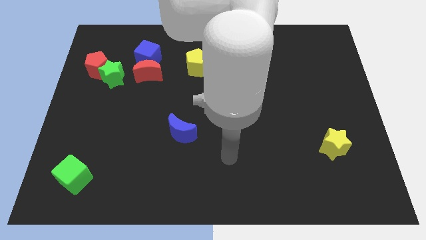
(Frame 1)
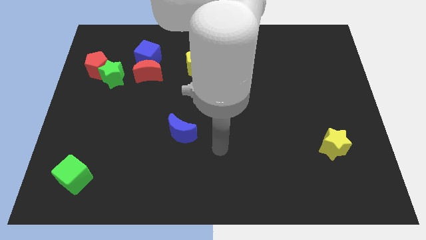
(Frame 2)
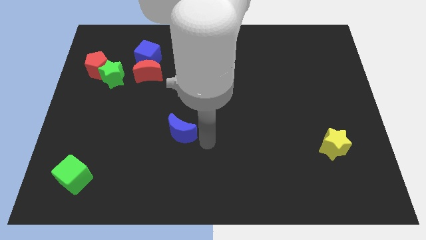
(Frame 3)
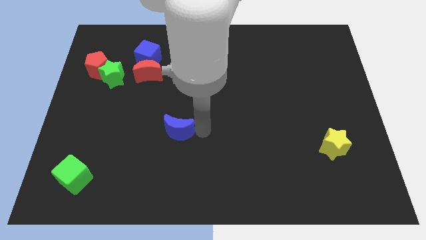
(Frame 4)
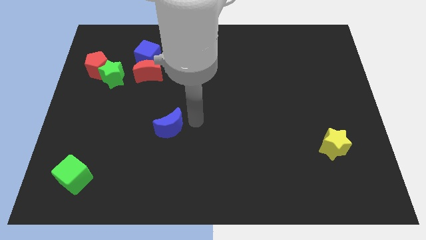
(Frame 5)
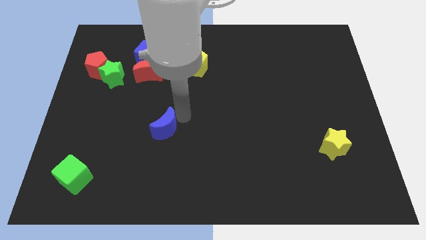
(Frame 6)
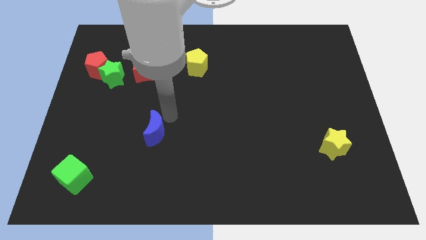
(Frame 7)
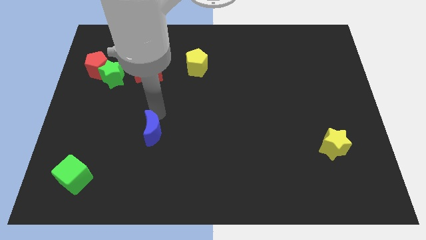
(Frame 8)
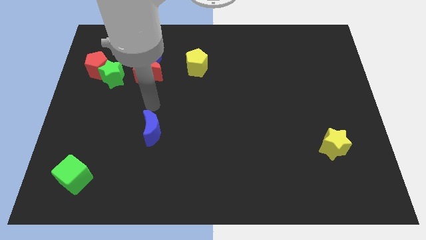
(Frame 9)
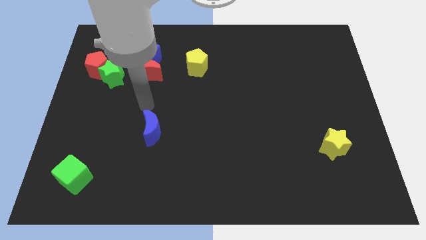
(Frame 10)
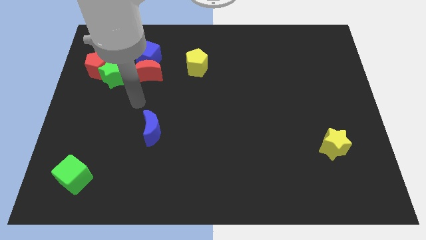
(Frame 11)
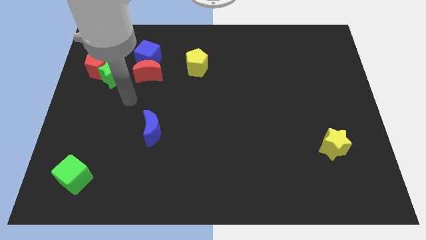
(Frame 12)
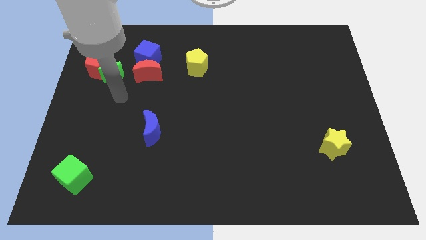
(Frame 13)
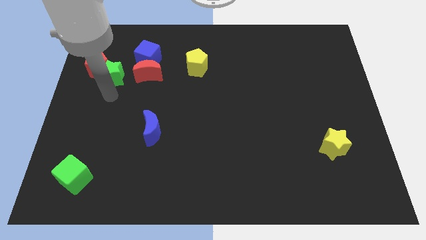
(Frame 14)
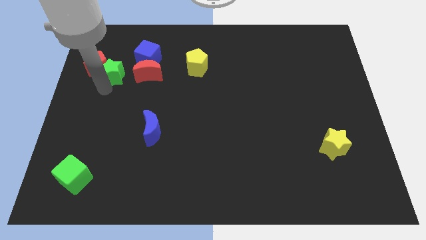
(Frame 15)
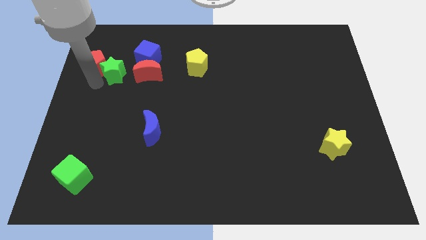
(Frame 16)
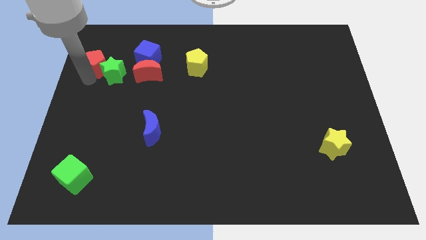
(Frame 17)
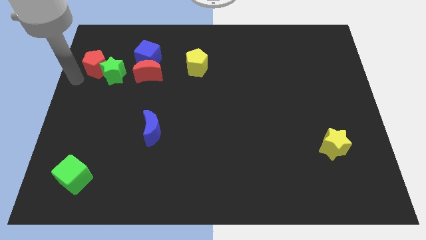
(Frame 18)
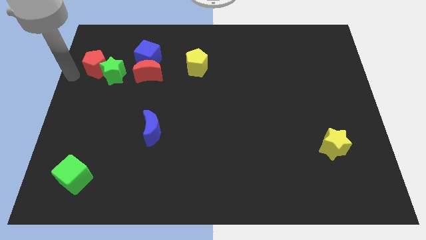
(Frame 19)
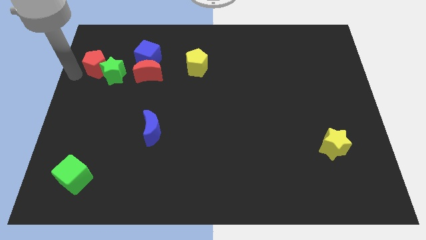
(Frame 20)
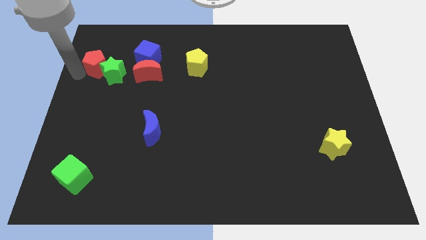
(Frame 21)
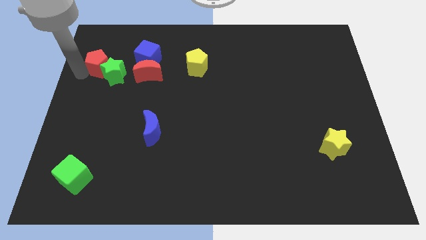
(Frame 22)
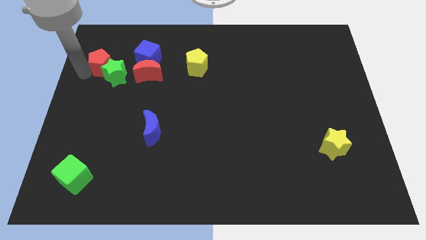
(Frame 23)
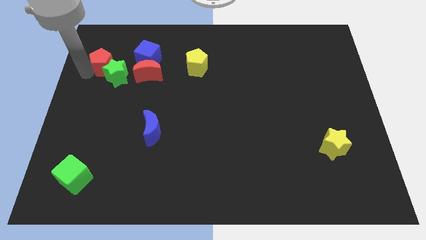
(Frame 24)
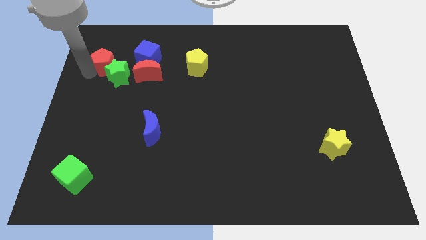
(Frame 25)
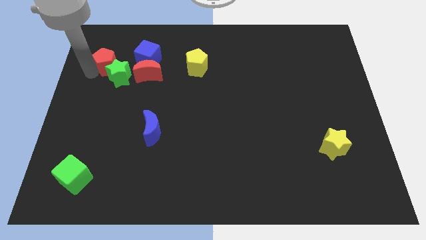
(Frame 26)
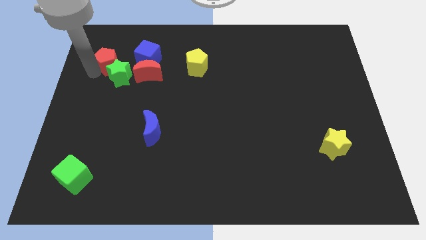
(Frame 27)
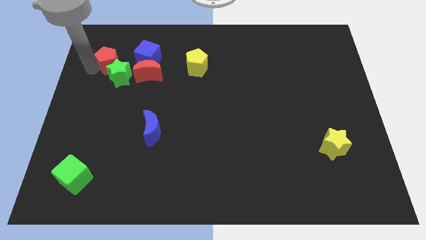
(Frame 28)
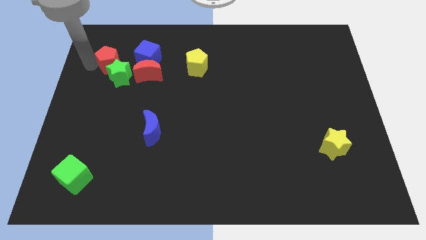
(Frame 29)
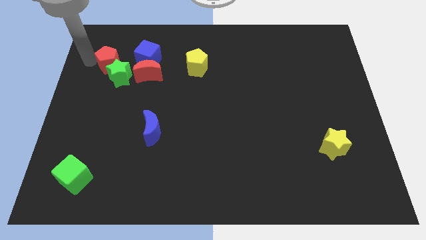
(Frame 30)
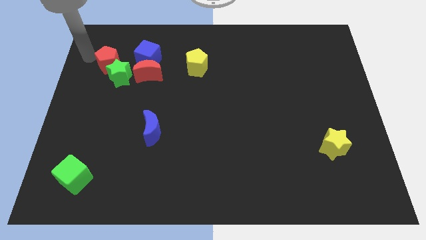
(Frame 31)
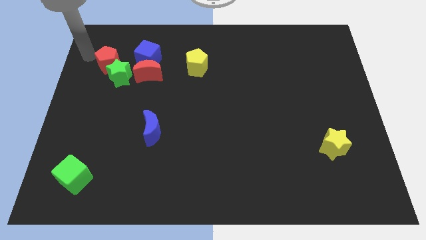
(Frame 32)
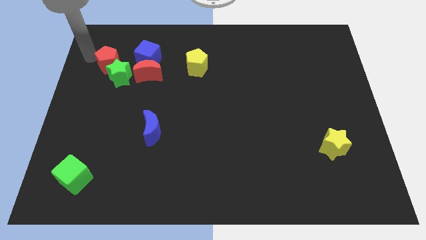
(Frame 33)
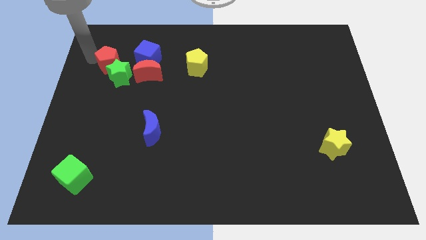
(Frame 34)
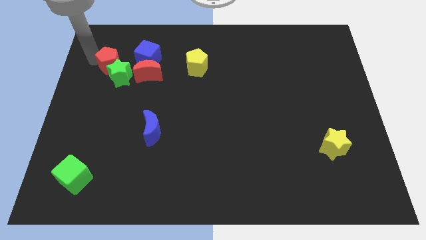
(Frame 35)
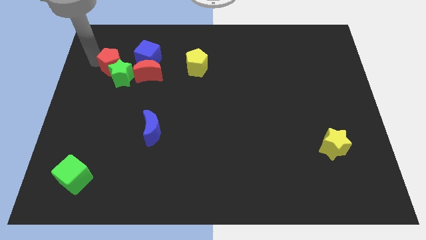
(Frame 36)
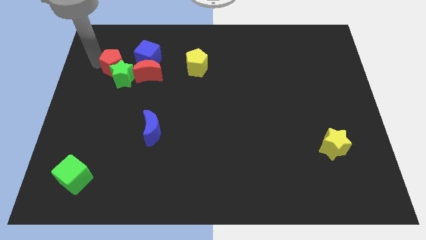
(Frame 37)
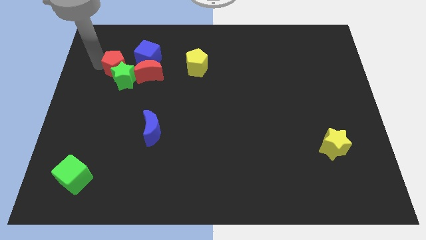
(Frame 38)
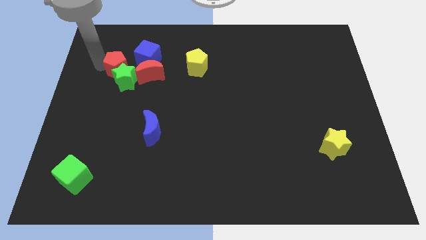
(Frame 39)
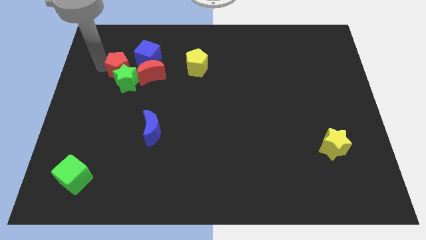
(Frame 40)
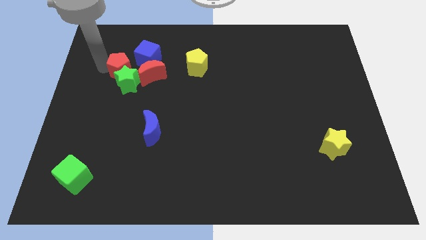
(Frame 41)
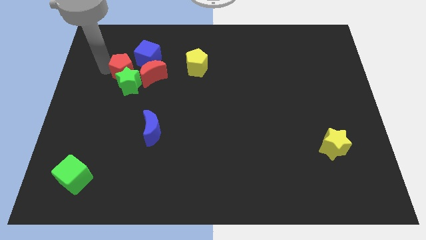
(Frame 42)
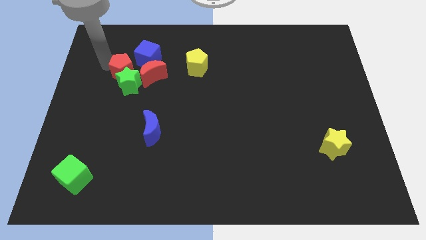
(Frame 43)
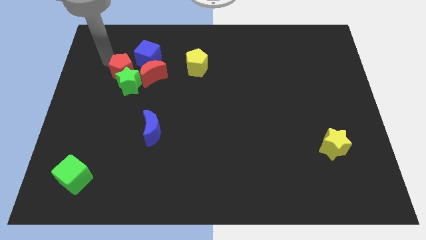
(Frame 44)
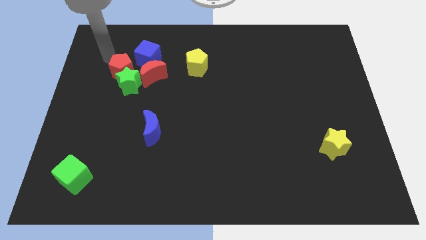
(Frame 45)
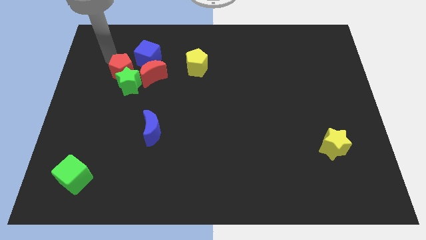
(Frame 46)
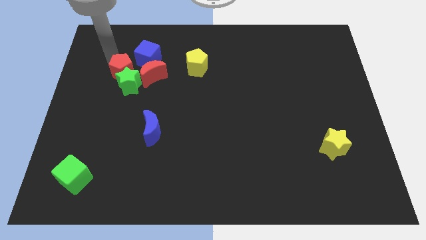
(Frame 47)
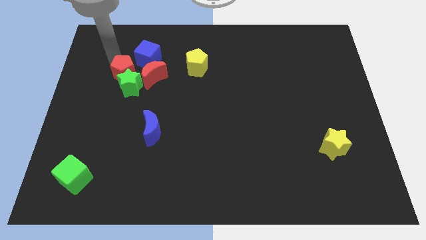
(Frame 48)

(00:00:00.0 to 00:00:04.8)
push the red pentagon a little right

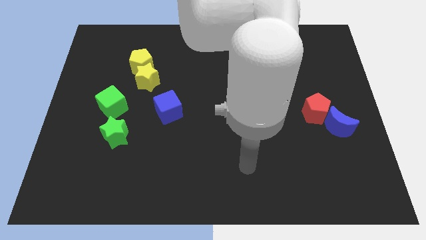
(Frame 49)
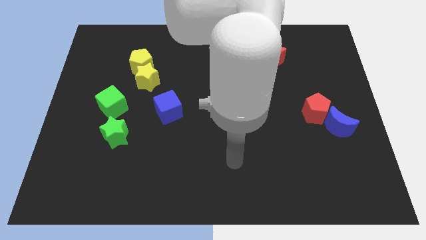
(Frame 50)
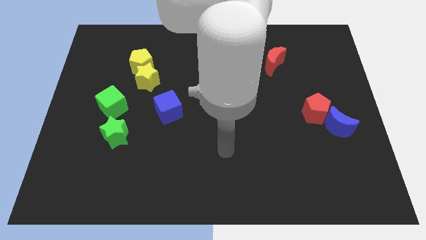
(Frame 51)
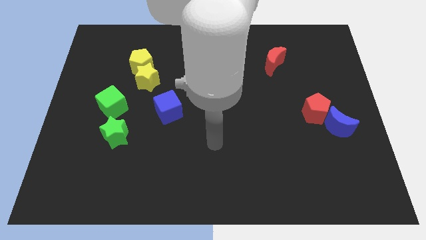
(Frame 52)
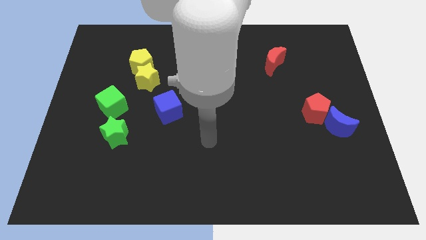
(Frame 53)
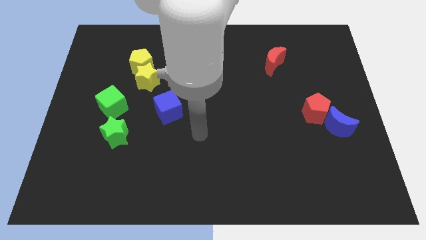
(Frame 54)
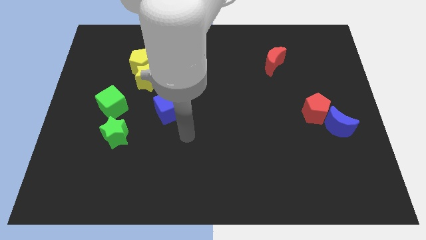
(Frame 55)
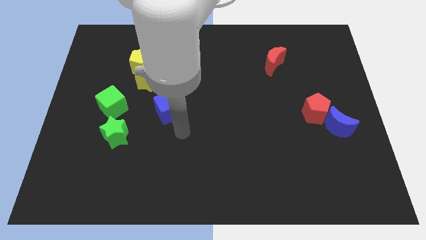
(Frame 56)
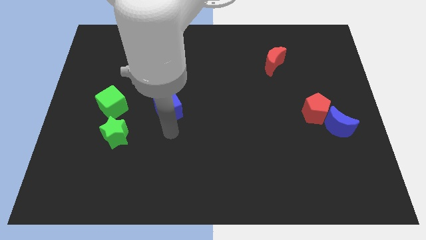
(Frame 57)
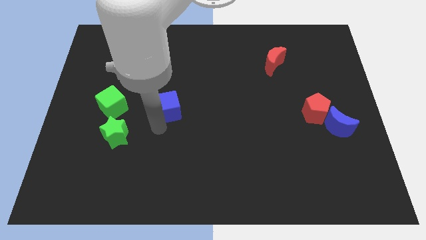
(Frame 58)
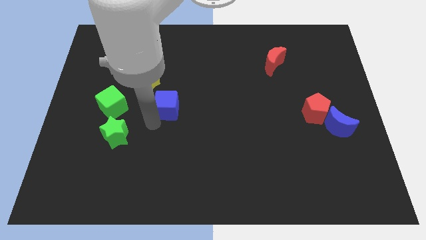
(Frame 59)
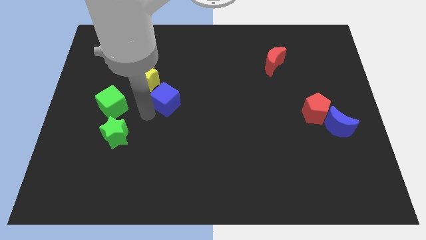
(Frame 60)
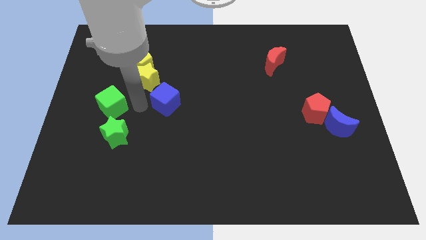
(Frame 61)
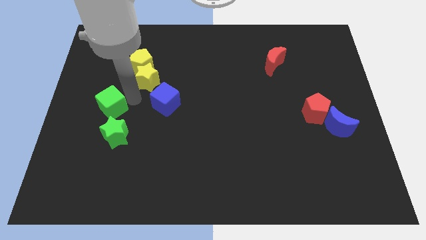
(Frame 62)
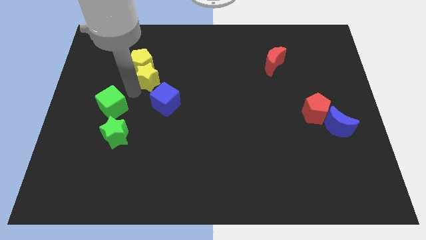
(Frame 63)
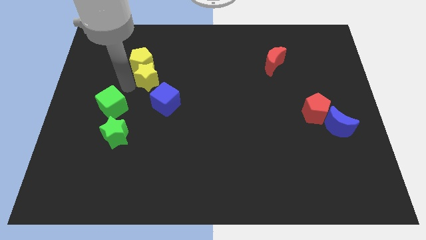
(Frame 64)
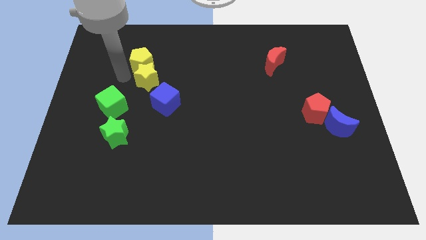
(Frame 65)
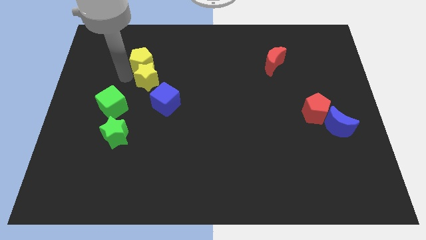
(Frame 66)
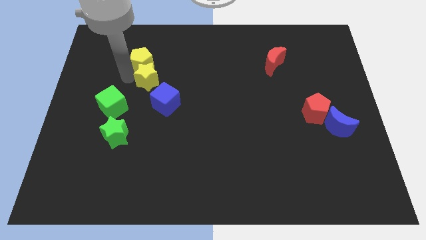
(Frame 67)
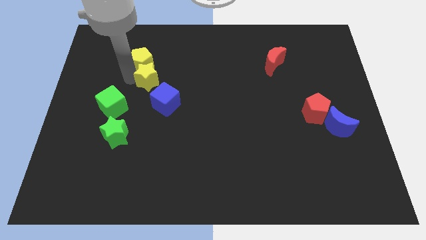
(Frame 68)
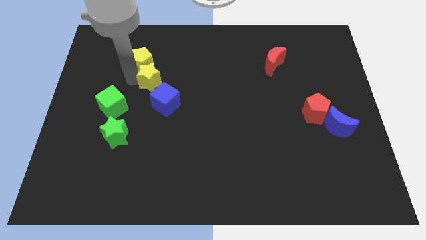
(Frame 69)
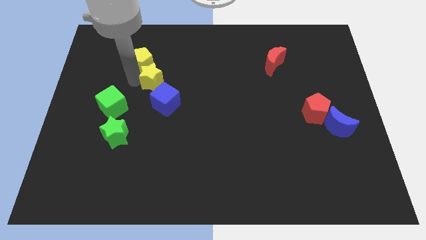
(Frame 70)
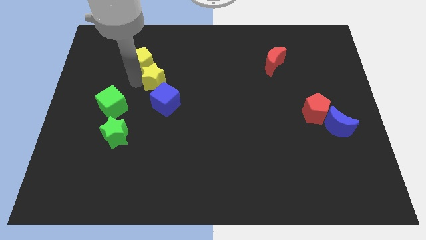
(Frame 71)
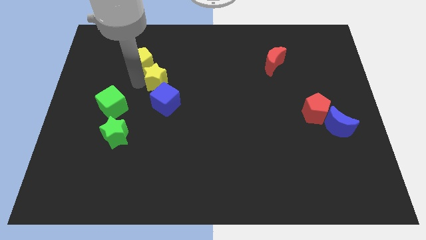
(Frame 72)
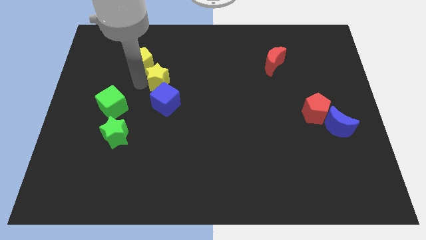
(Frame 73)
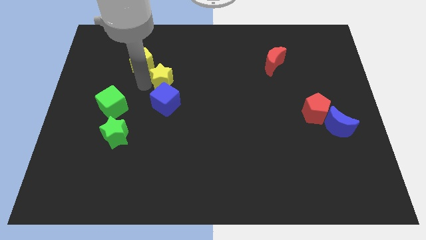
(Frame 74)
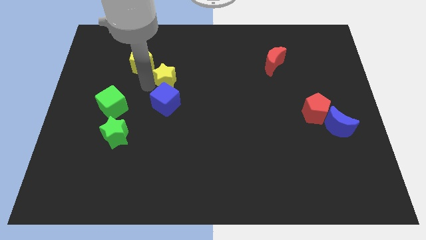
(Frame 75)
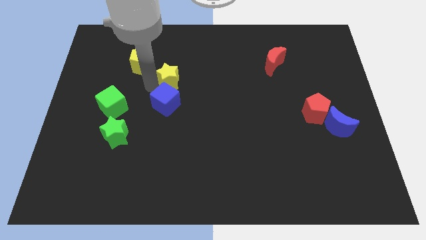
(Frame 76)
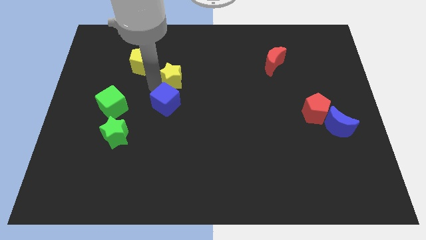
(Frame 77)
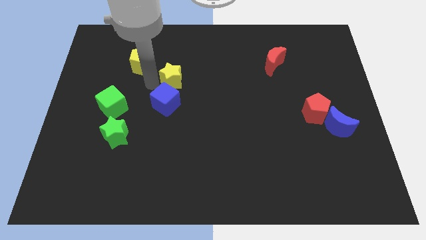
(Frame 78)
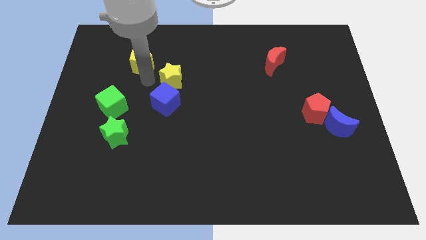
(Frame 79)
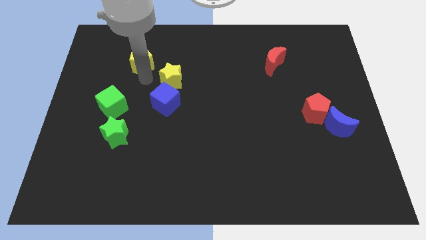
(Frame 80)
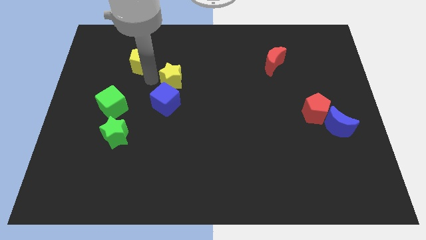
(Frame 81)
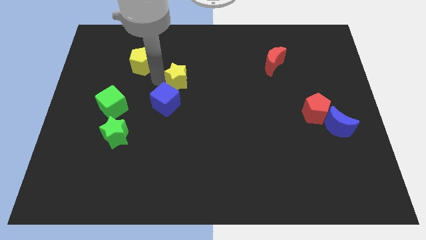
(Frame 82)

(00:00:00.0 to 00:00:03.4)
move the yellow star a little right
